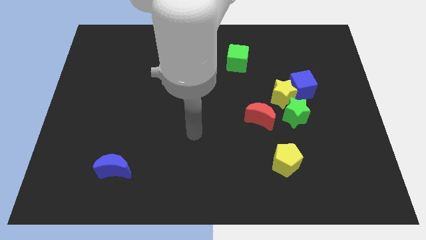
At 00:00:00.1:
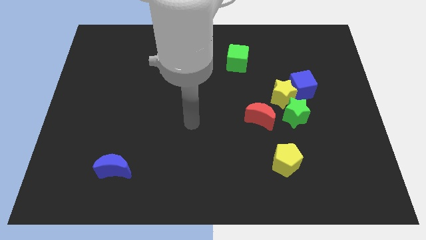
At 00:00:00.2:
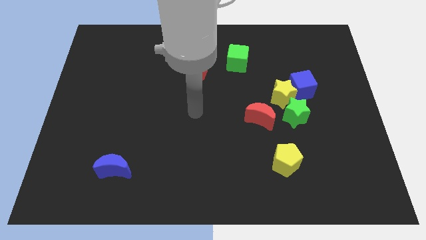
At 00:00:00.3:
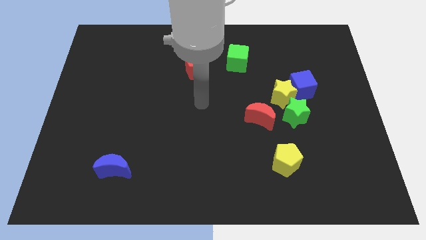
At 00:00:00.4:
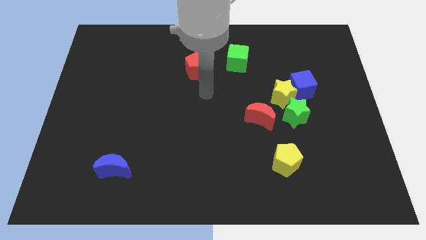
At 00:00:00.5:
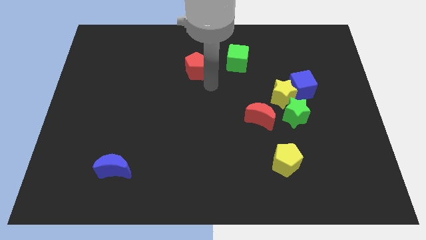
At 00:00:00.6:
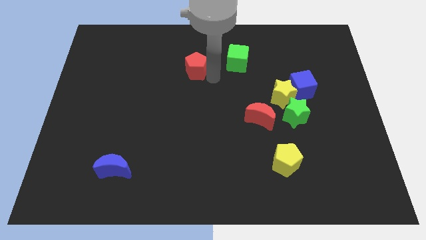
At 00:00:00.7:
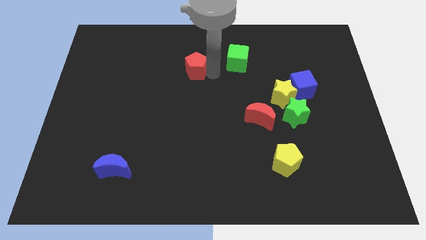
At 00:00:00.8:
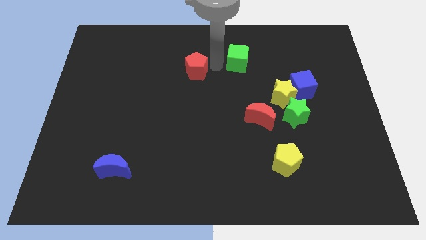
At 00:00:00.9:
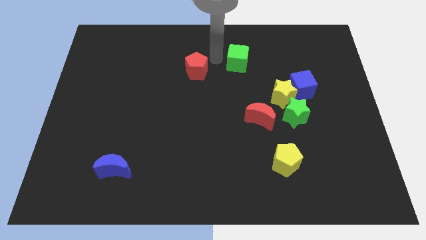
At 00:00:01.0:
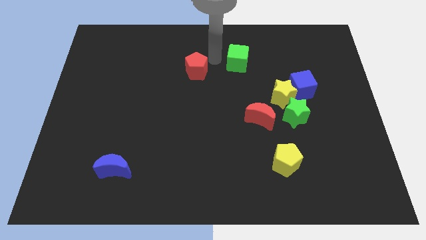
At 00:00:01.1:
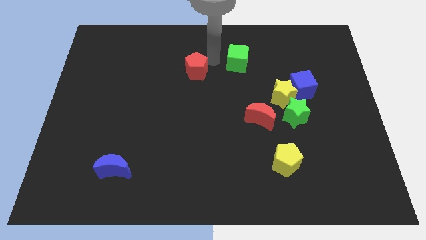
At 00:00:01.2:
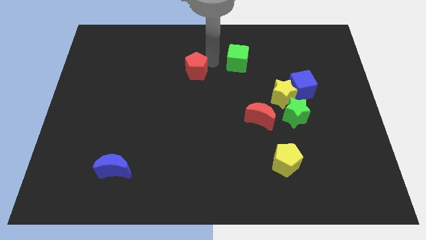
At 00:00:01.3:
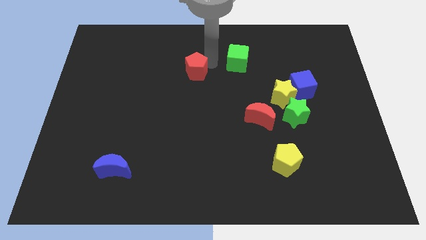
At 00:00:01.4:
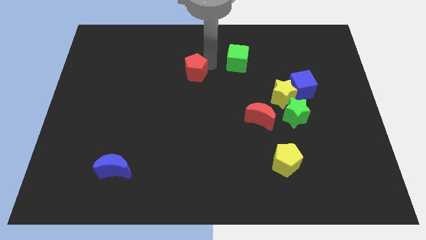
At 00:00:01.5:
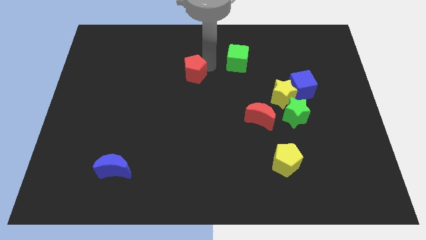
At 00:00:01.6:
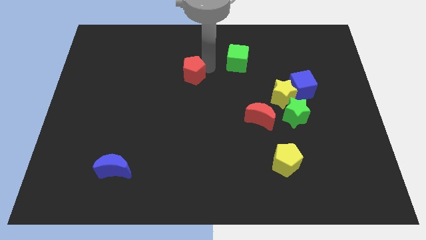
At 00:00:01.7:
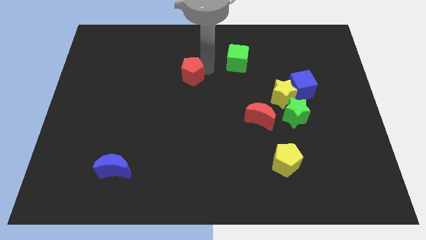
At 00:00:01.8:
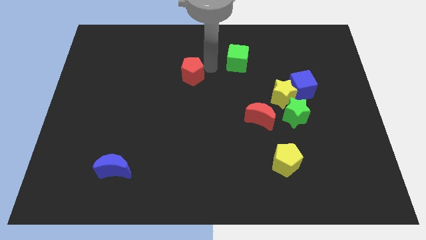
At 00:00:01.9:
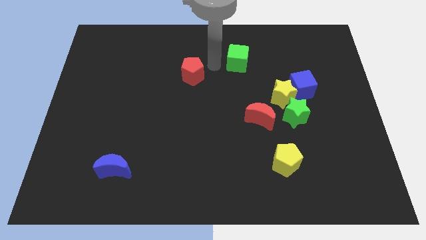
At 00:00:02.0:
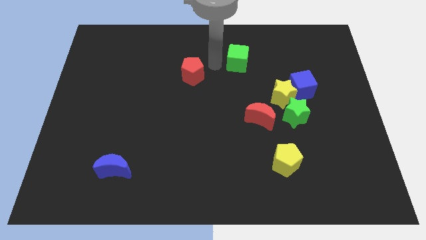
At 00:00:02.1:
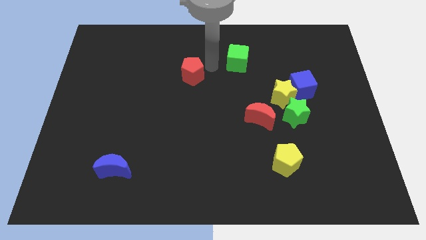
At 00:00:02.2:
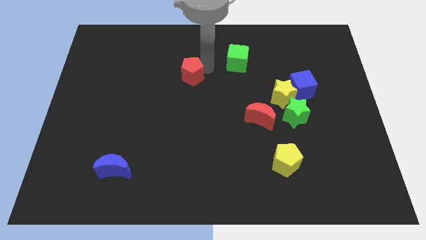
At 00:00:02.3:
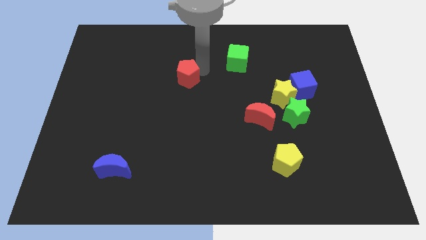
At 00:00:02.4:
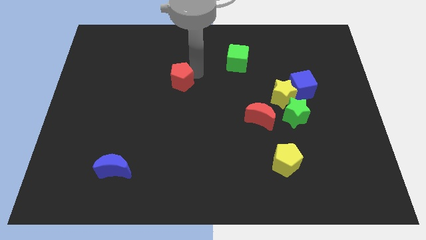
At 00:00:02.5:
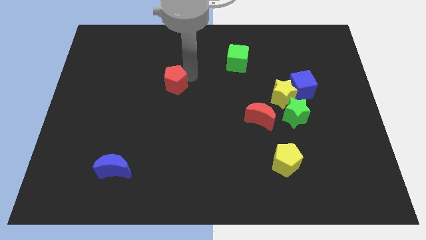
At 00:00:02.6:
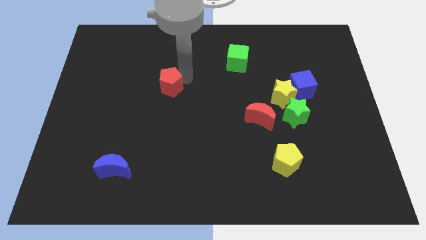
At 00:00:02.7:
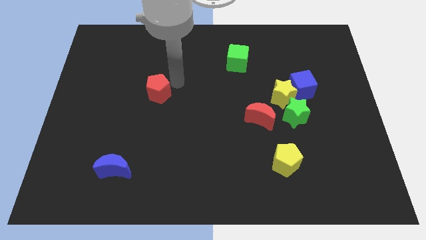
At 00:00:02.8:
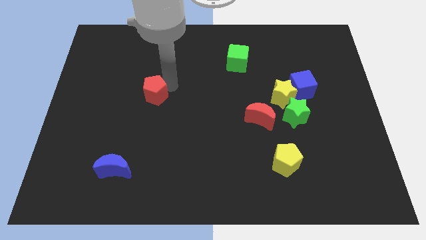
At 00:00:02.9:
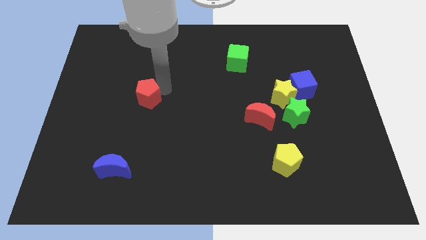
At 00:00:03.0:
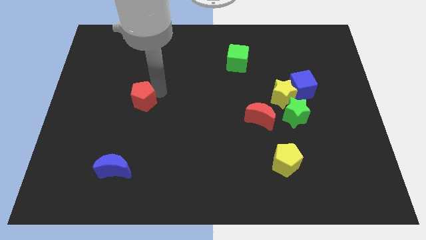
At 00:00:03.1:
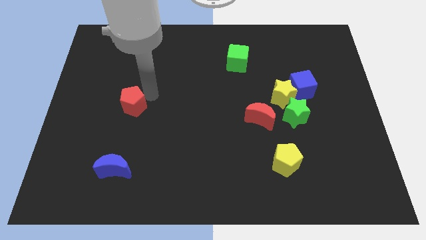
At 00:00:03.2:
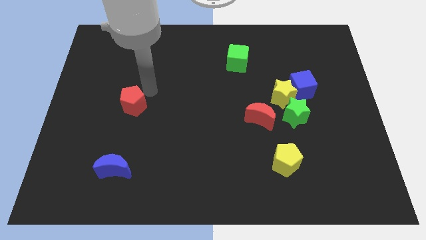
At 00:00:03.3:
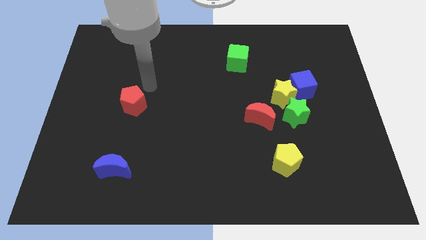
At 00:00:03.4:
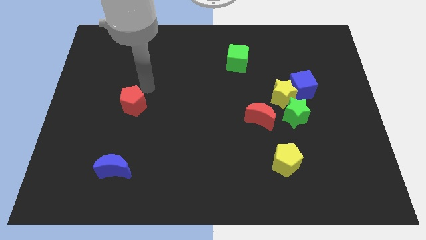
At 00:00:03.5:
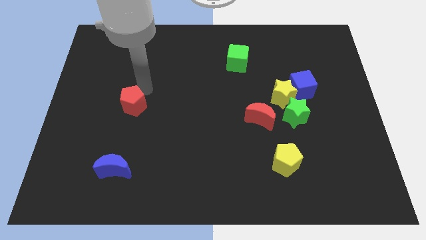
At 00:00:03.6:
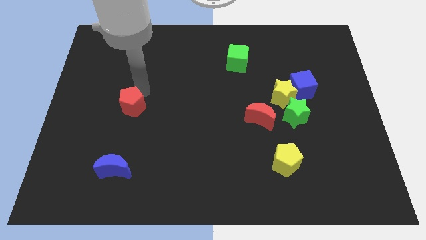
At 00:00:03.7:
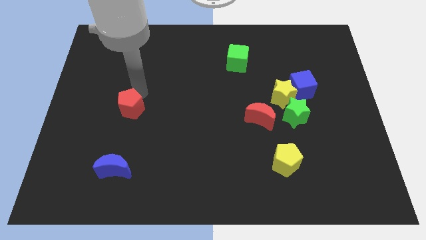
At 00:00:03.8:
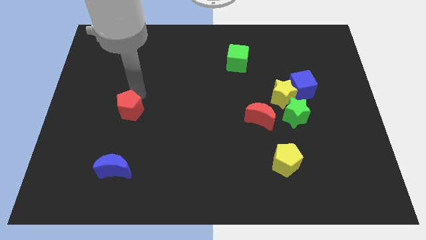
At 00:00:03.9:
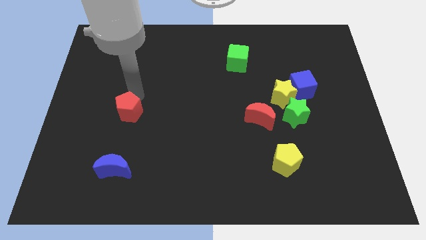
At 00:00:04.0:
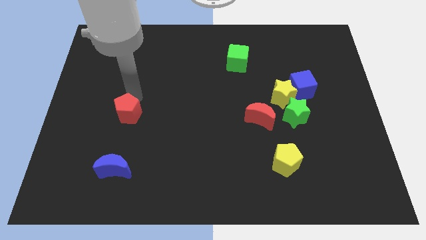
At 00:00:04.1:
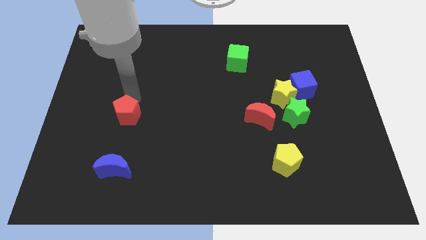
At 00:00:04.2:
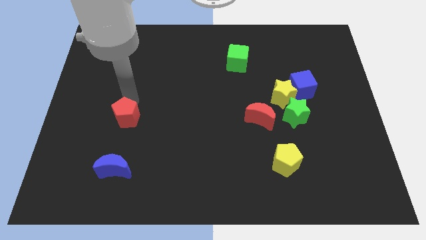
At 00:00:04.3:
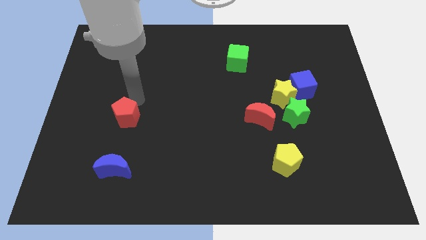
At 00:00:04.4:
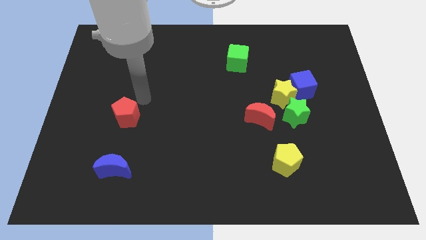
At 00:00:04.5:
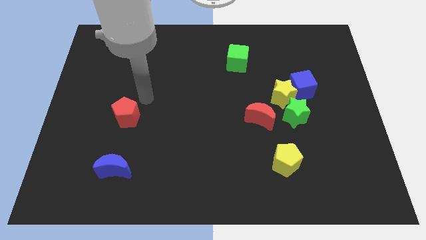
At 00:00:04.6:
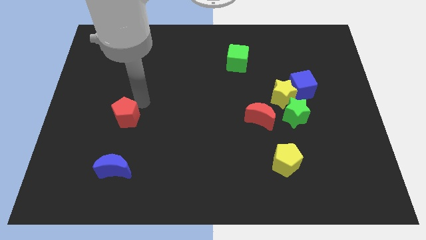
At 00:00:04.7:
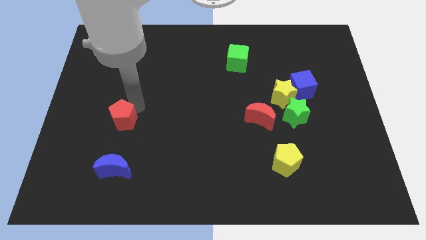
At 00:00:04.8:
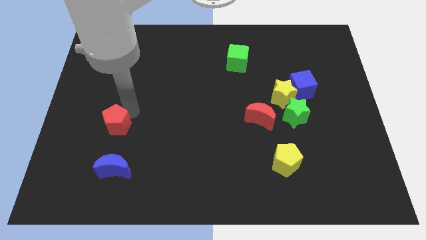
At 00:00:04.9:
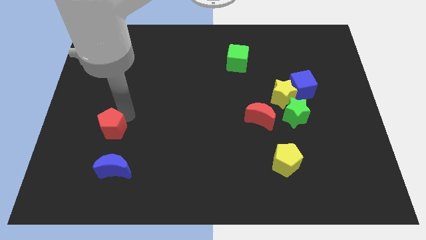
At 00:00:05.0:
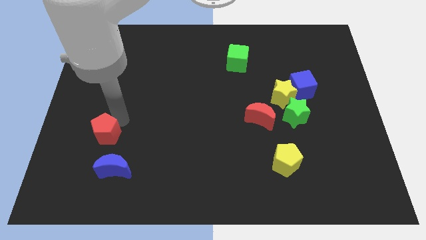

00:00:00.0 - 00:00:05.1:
put the red pentagon to the top left of the blue moon

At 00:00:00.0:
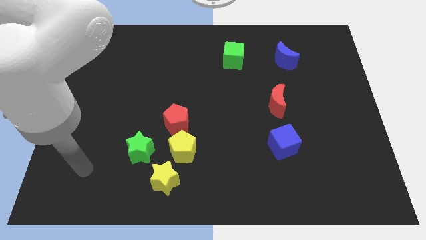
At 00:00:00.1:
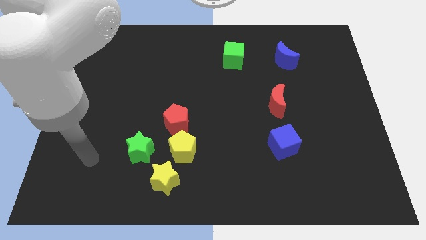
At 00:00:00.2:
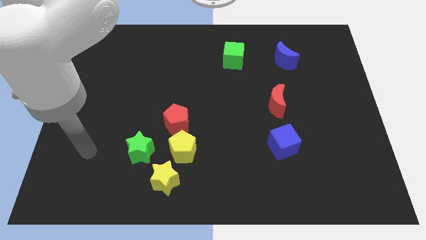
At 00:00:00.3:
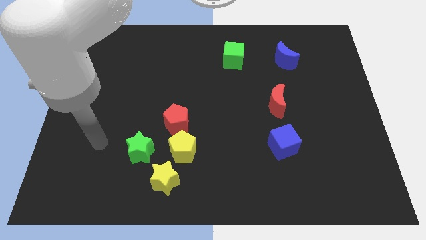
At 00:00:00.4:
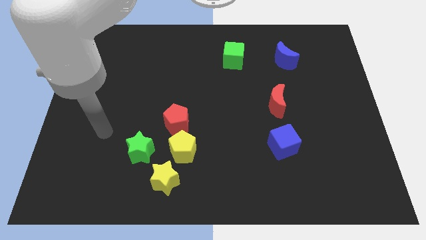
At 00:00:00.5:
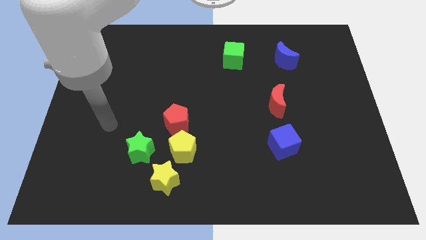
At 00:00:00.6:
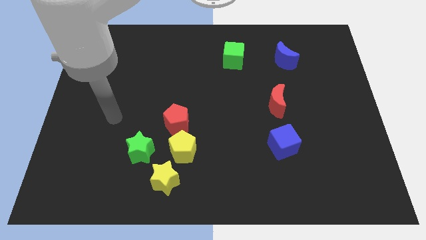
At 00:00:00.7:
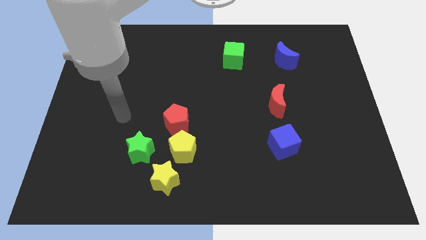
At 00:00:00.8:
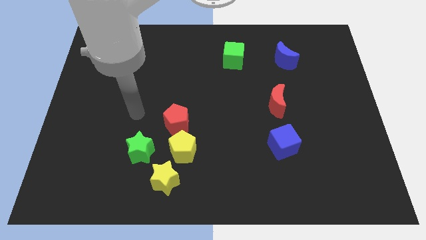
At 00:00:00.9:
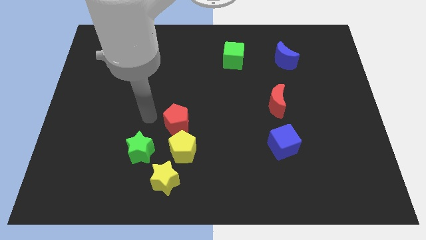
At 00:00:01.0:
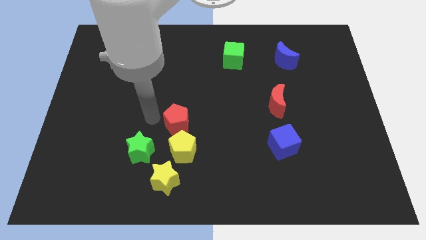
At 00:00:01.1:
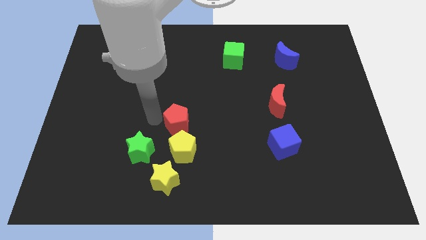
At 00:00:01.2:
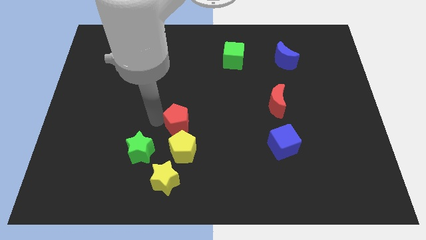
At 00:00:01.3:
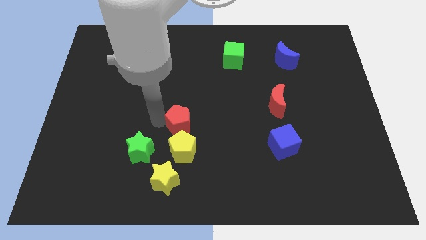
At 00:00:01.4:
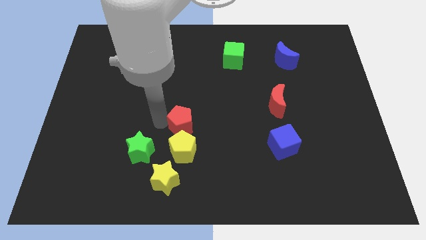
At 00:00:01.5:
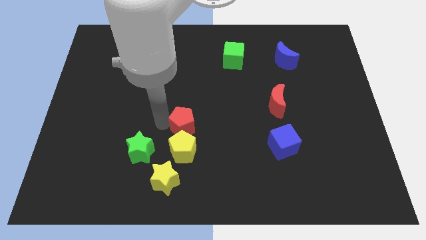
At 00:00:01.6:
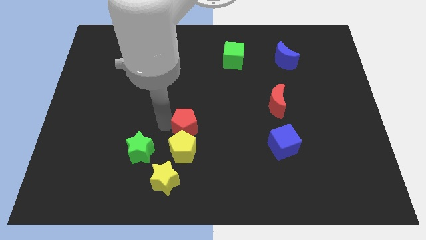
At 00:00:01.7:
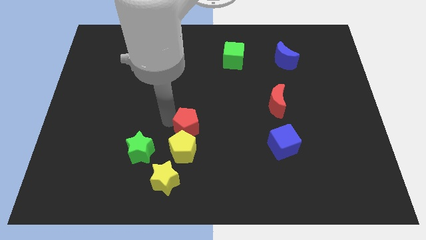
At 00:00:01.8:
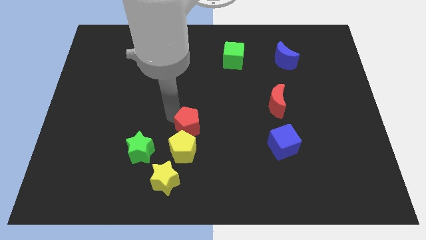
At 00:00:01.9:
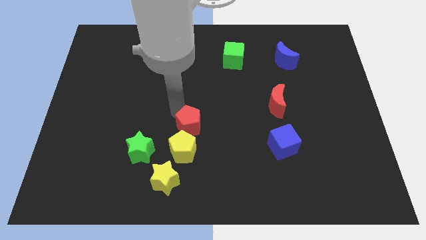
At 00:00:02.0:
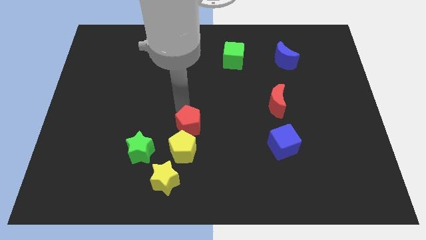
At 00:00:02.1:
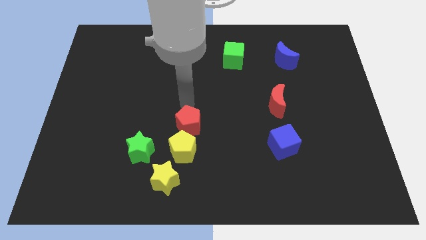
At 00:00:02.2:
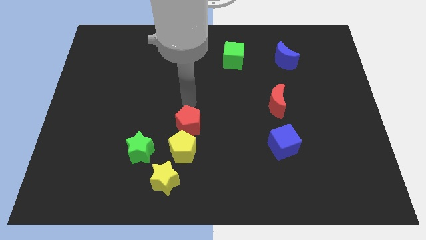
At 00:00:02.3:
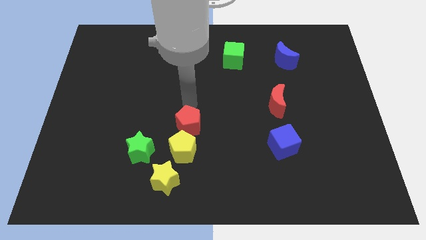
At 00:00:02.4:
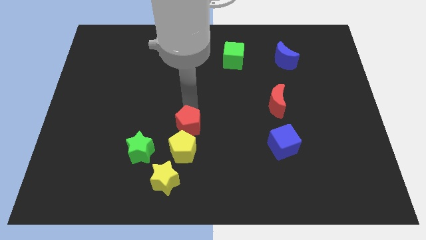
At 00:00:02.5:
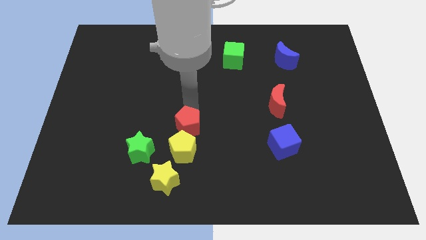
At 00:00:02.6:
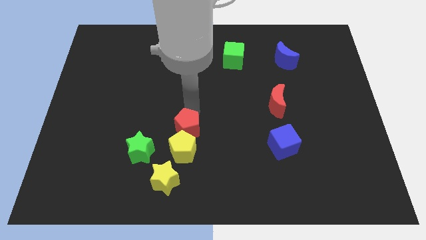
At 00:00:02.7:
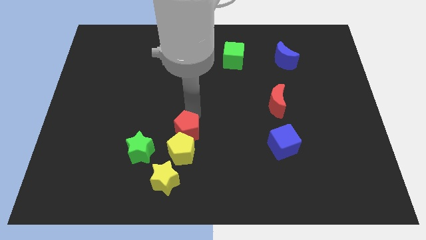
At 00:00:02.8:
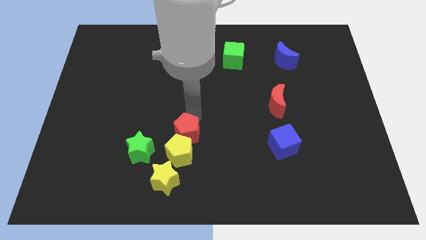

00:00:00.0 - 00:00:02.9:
slide the red pentagon to the right side of the green star
